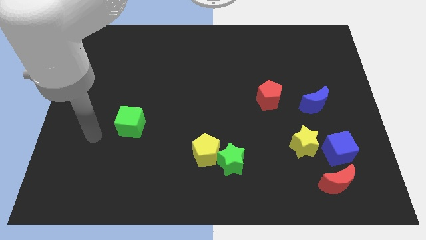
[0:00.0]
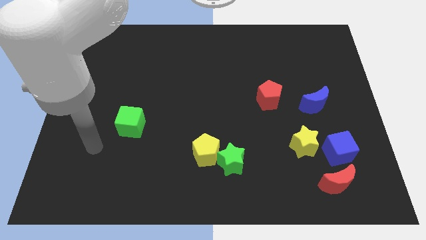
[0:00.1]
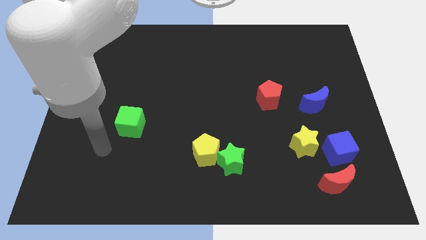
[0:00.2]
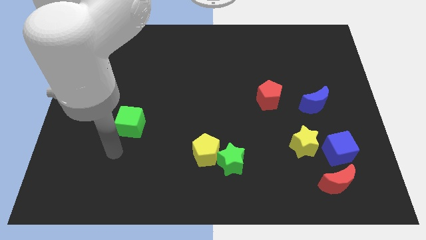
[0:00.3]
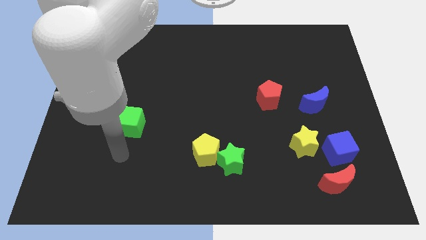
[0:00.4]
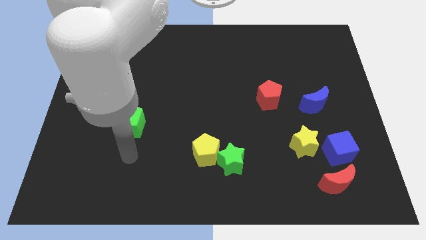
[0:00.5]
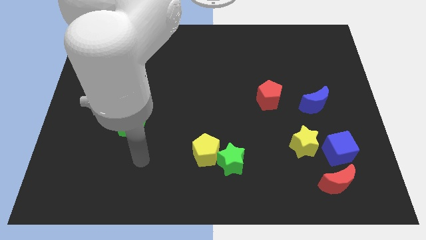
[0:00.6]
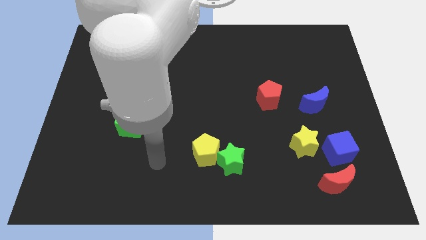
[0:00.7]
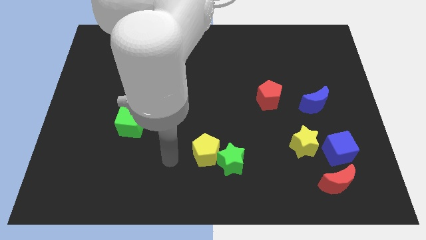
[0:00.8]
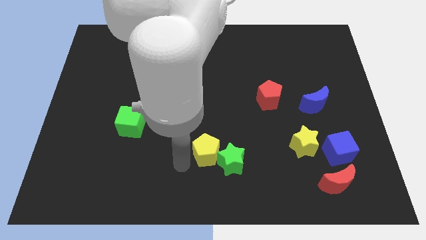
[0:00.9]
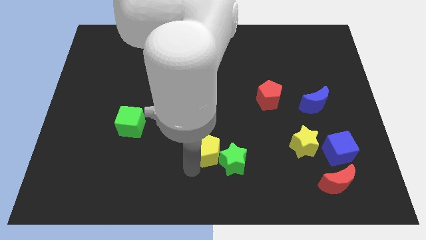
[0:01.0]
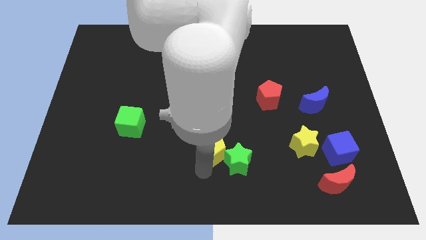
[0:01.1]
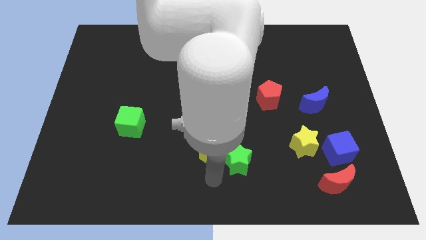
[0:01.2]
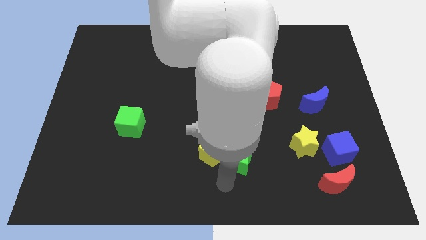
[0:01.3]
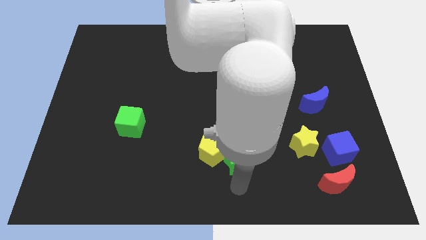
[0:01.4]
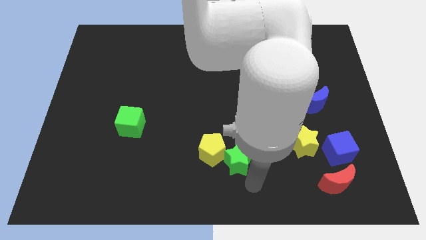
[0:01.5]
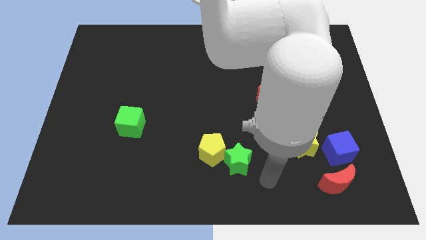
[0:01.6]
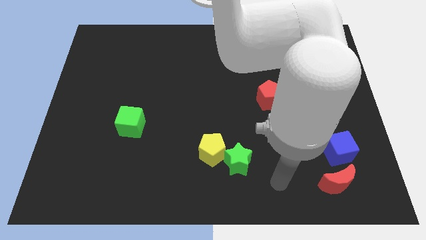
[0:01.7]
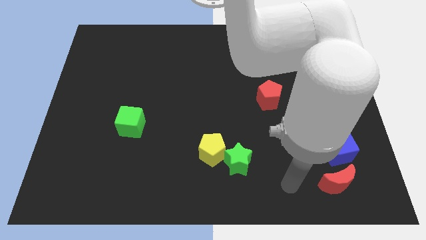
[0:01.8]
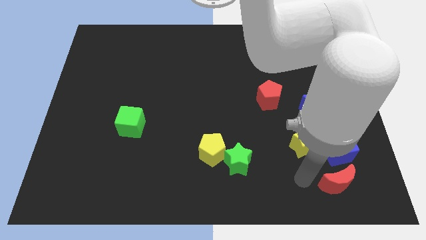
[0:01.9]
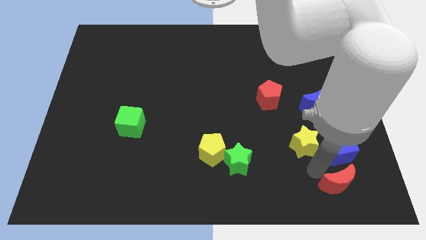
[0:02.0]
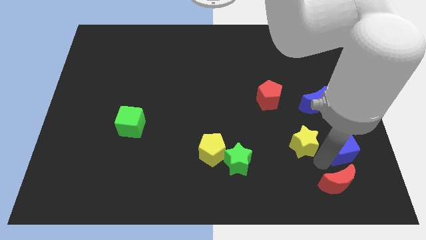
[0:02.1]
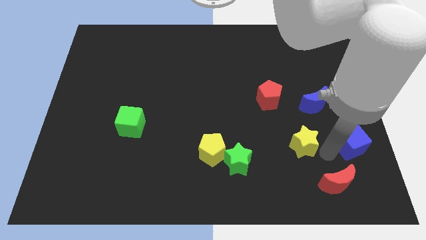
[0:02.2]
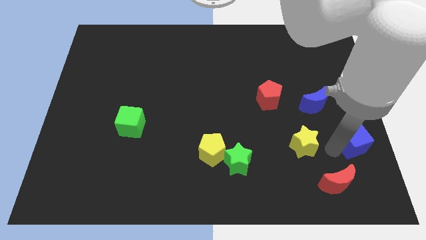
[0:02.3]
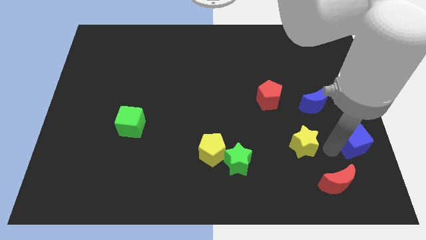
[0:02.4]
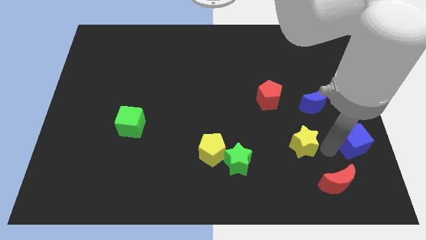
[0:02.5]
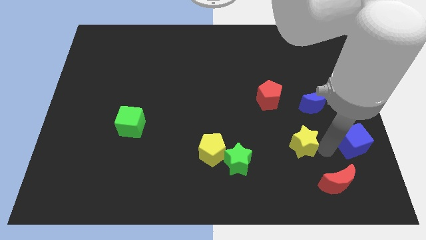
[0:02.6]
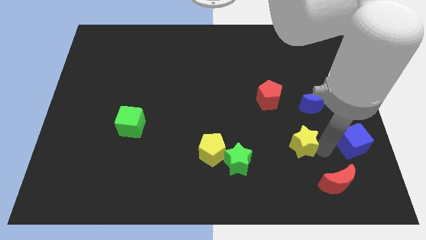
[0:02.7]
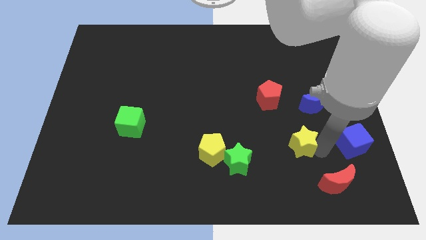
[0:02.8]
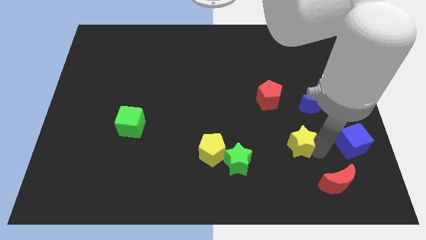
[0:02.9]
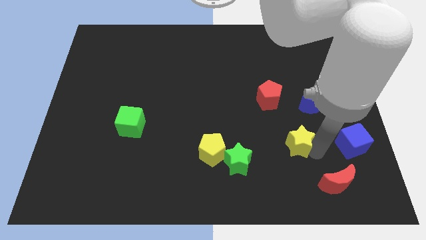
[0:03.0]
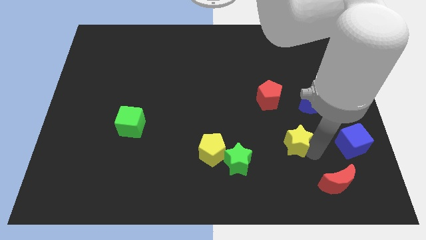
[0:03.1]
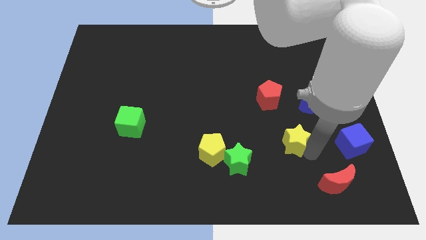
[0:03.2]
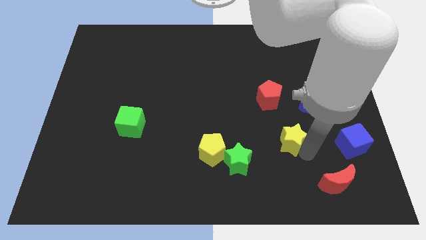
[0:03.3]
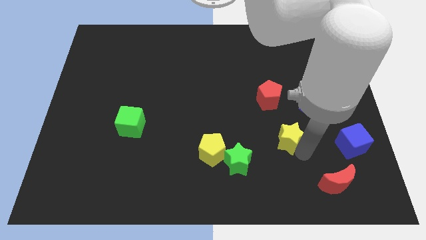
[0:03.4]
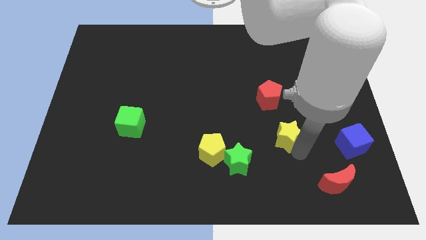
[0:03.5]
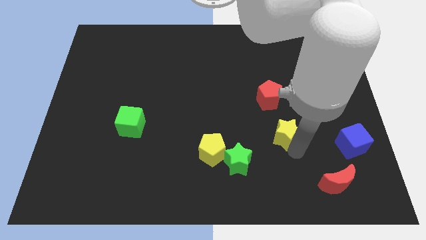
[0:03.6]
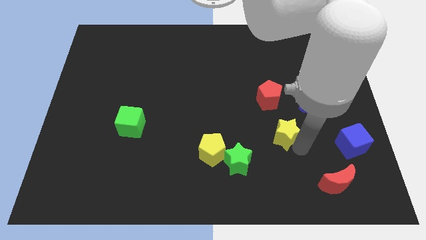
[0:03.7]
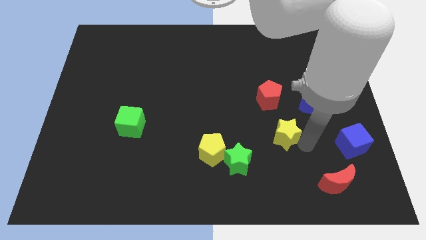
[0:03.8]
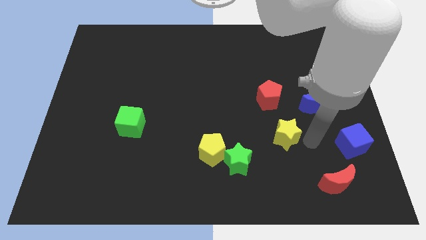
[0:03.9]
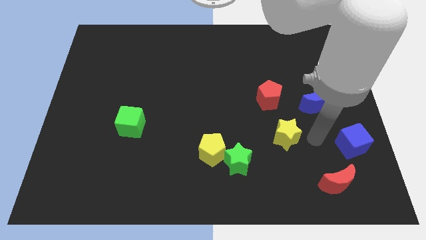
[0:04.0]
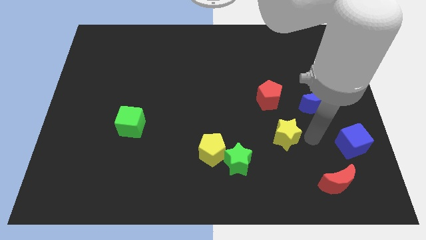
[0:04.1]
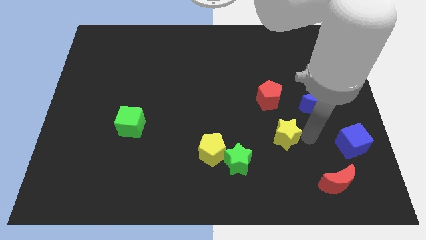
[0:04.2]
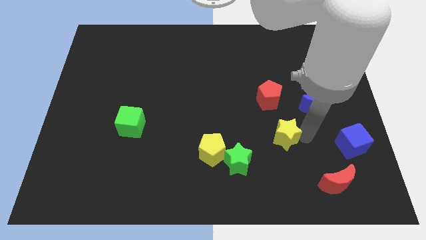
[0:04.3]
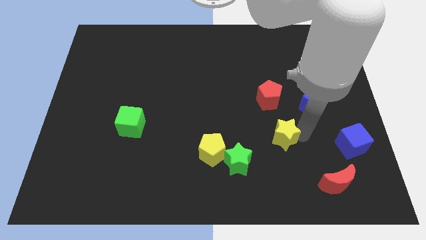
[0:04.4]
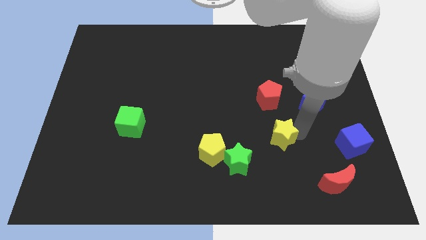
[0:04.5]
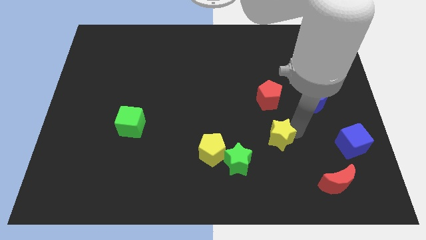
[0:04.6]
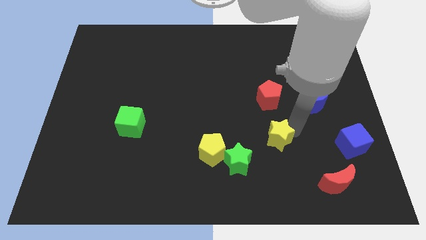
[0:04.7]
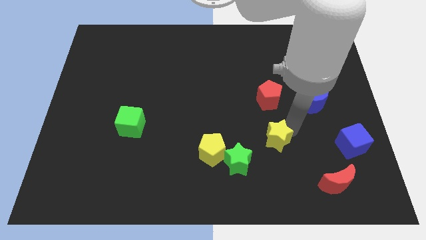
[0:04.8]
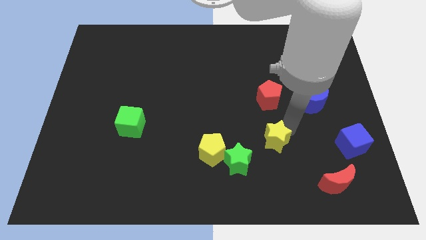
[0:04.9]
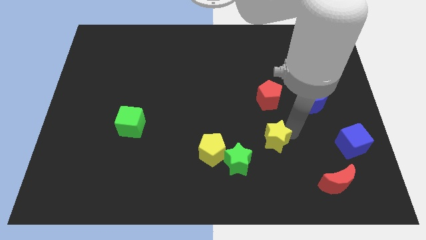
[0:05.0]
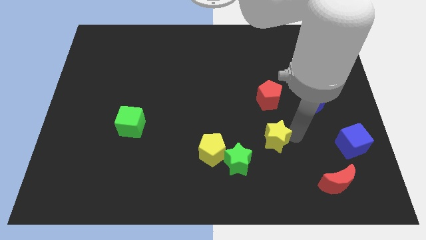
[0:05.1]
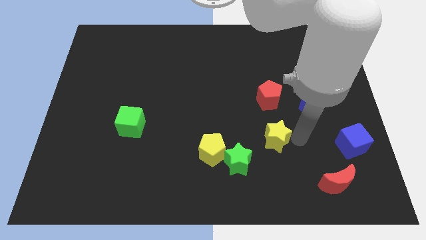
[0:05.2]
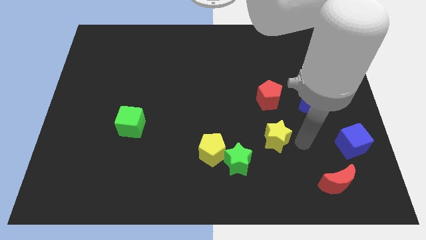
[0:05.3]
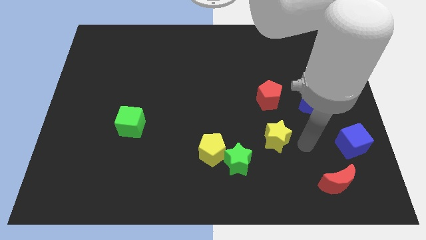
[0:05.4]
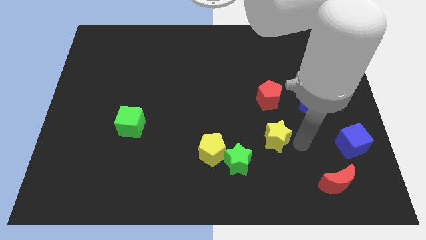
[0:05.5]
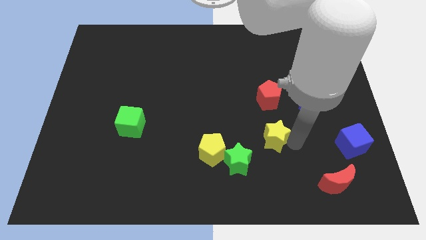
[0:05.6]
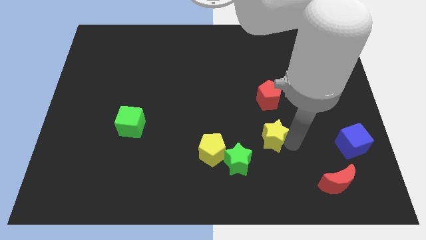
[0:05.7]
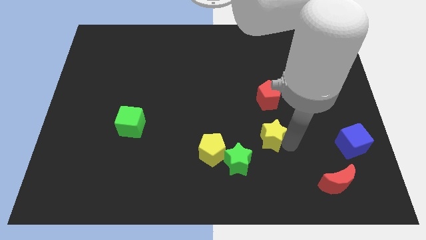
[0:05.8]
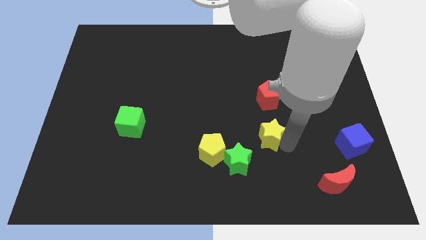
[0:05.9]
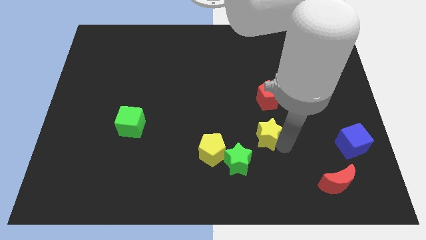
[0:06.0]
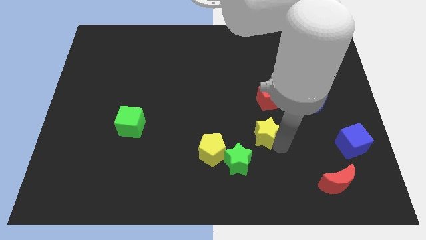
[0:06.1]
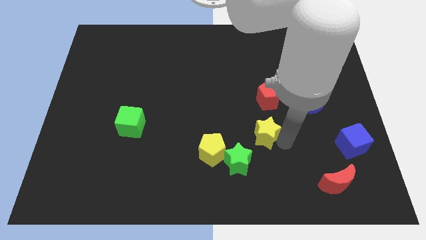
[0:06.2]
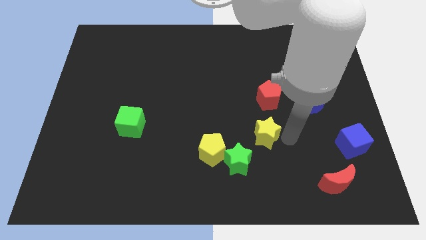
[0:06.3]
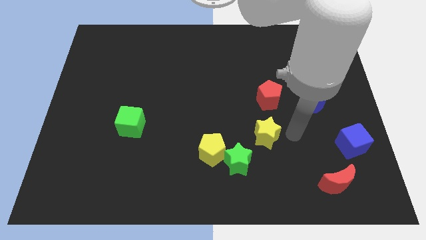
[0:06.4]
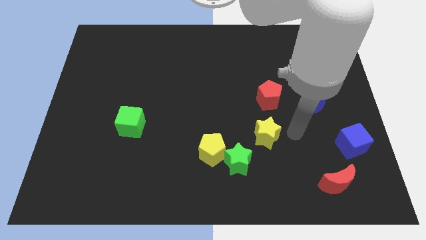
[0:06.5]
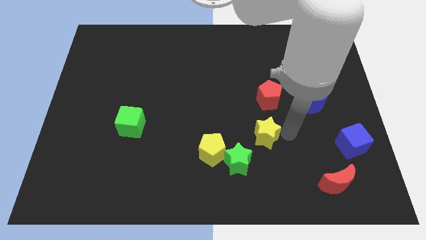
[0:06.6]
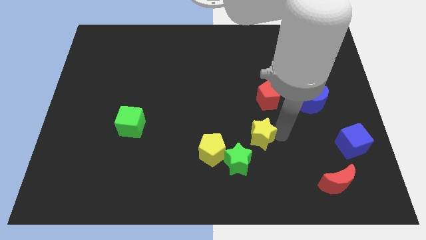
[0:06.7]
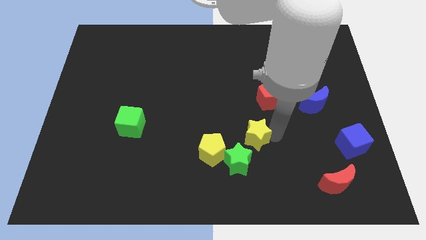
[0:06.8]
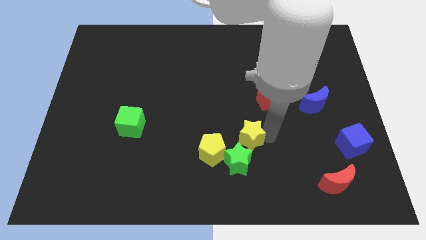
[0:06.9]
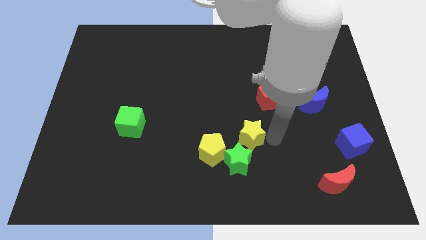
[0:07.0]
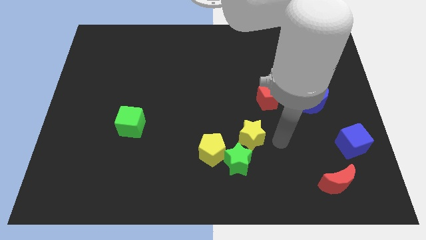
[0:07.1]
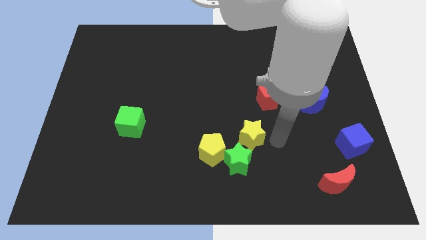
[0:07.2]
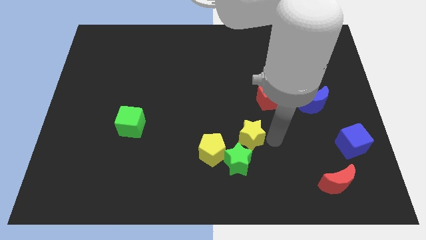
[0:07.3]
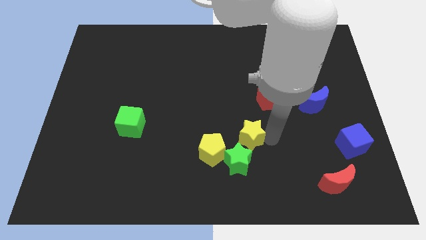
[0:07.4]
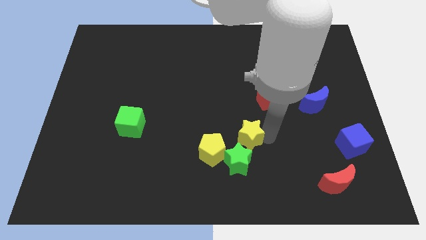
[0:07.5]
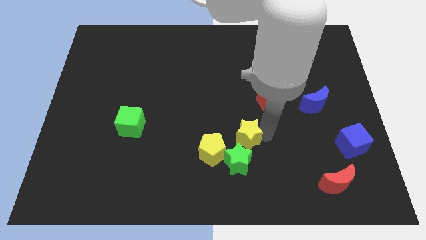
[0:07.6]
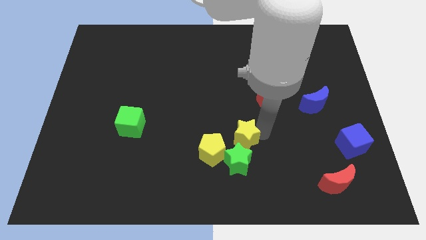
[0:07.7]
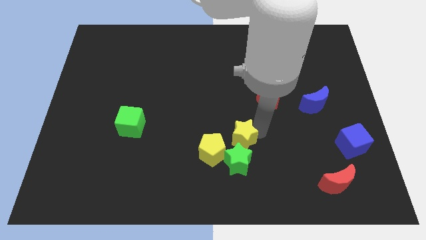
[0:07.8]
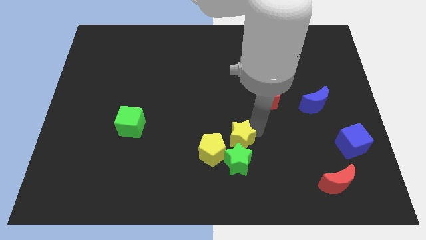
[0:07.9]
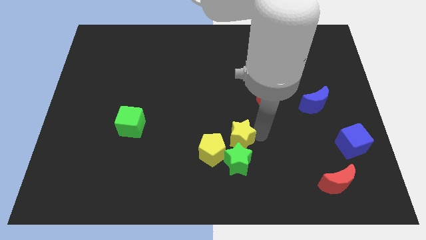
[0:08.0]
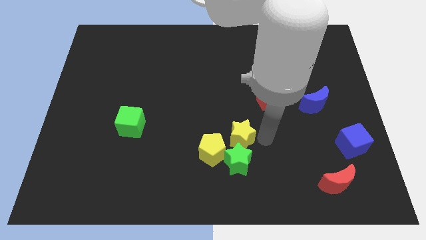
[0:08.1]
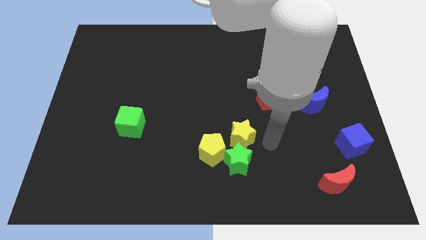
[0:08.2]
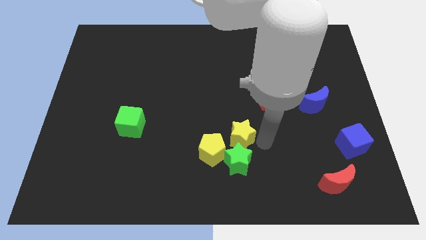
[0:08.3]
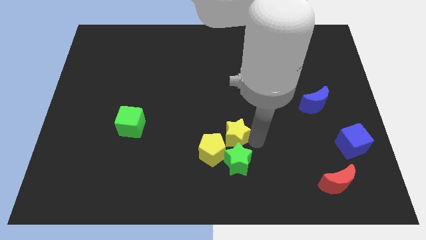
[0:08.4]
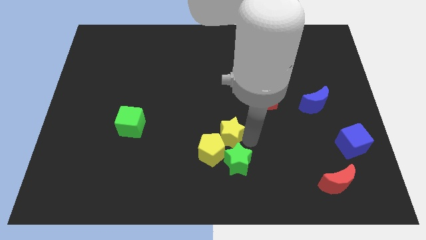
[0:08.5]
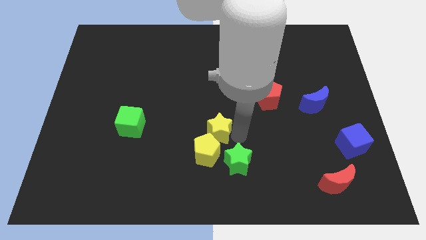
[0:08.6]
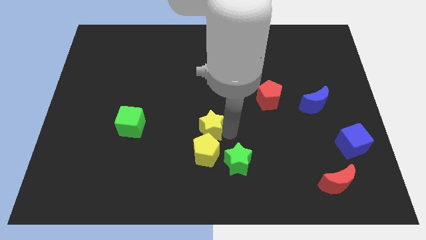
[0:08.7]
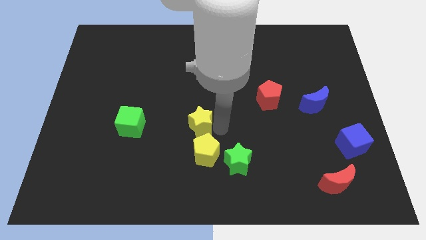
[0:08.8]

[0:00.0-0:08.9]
push the yellow star to the left
